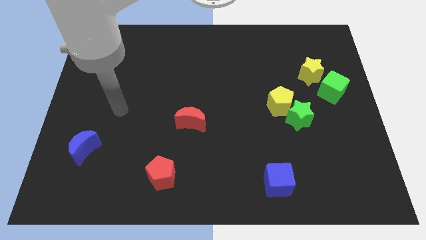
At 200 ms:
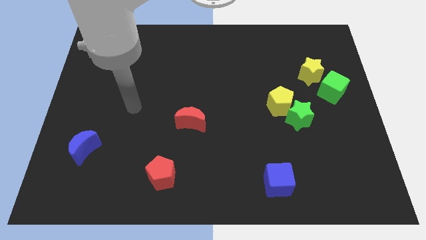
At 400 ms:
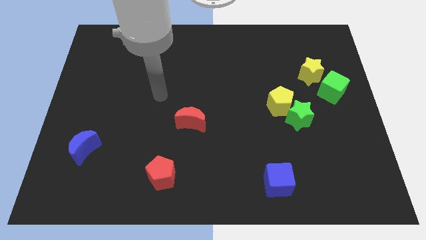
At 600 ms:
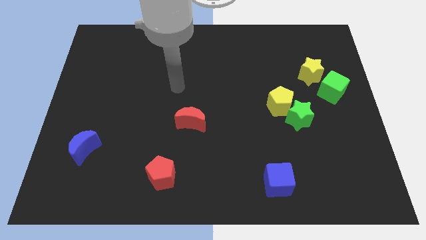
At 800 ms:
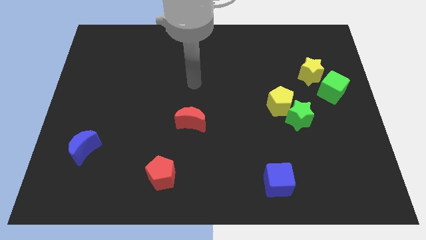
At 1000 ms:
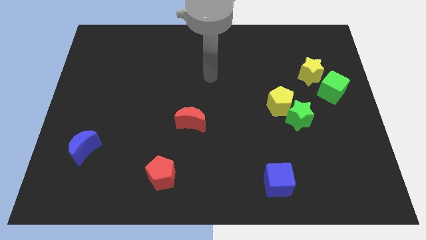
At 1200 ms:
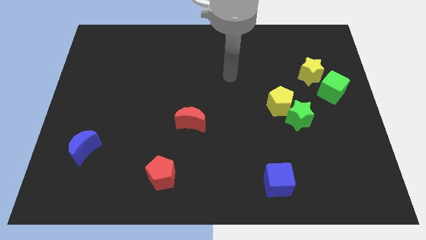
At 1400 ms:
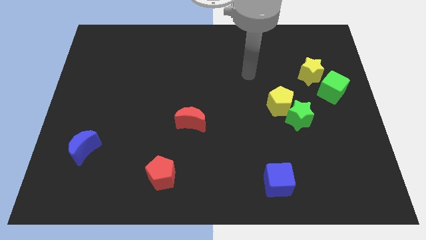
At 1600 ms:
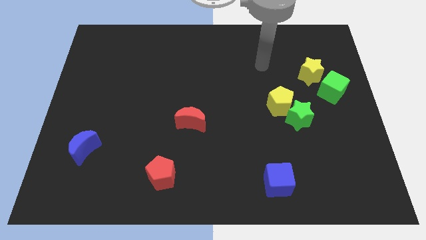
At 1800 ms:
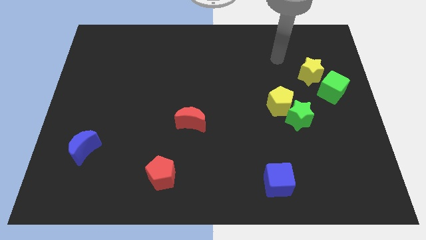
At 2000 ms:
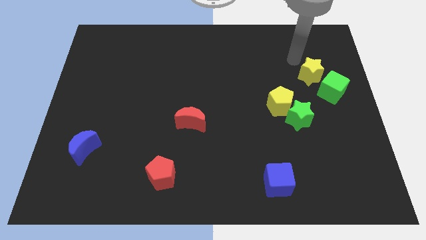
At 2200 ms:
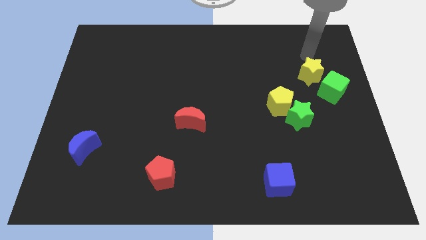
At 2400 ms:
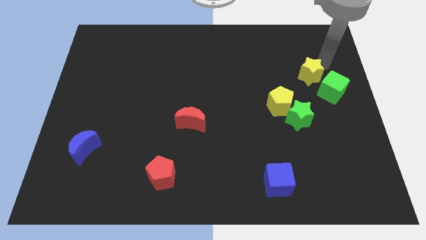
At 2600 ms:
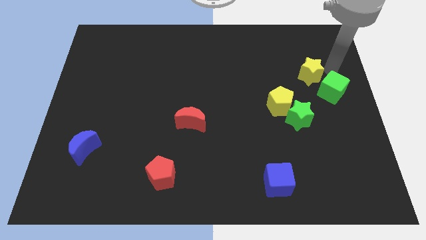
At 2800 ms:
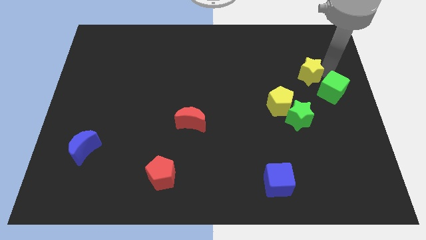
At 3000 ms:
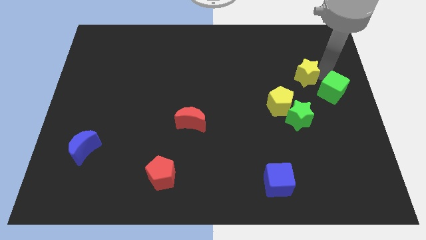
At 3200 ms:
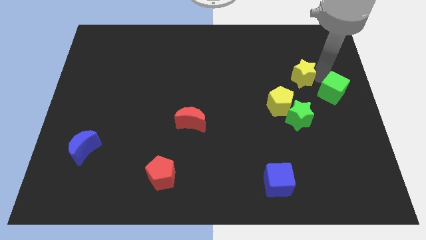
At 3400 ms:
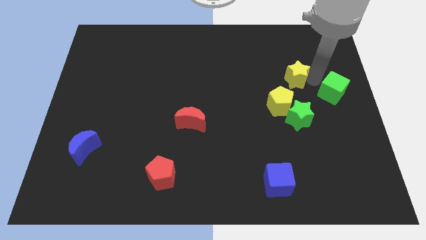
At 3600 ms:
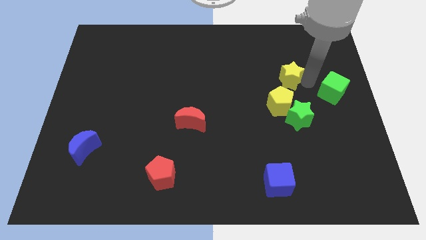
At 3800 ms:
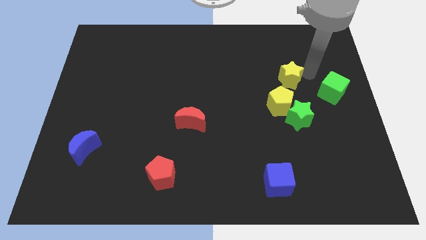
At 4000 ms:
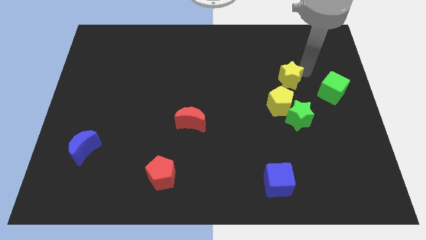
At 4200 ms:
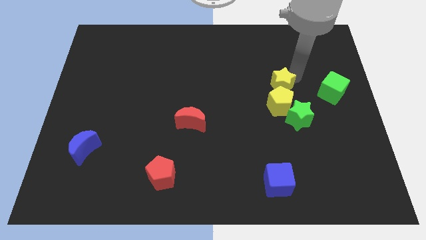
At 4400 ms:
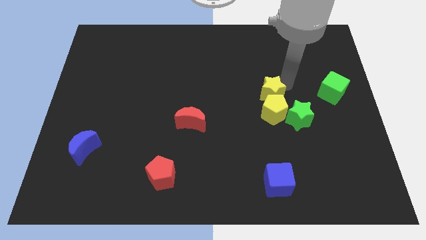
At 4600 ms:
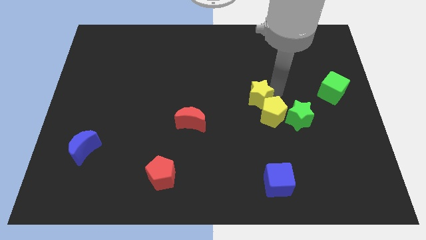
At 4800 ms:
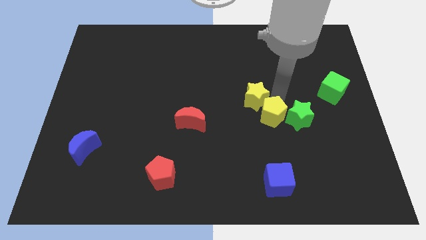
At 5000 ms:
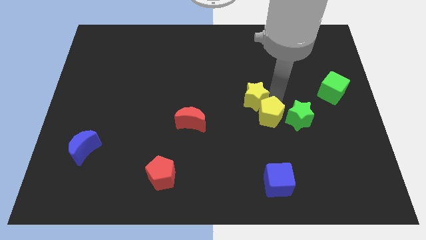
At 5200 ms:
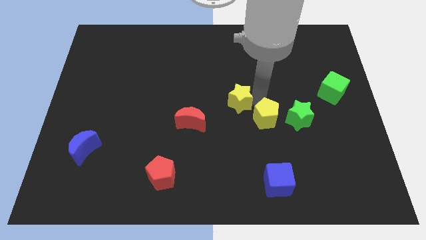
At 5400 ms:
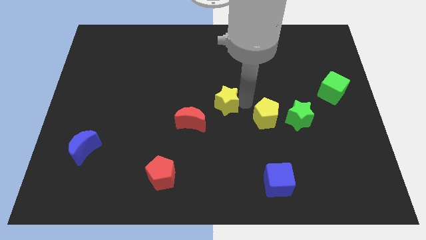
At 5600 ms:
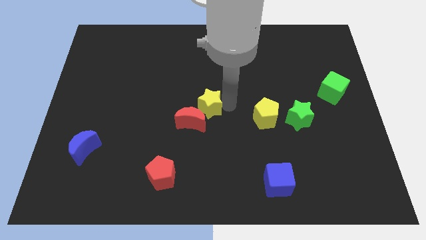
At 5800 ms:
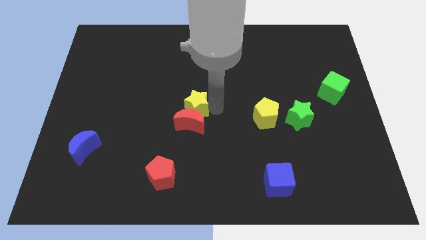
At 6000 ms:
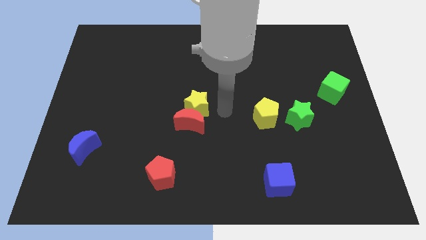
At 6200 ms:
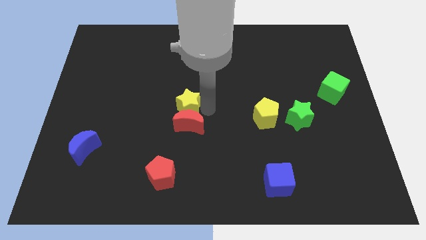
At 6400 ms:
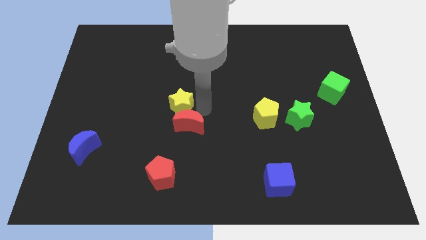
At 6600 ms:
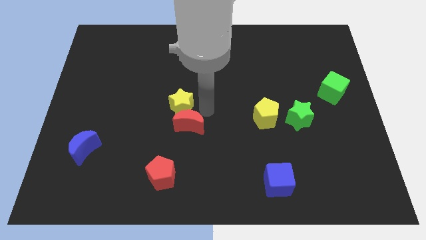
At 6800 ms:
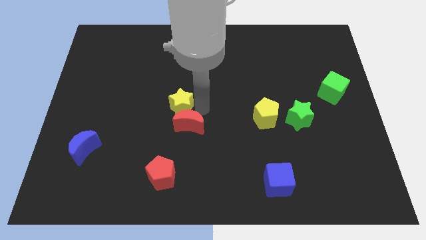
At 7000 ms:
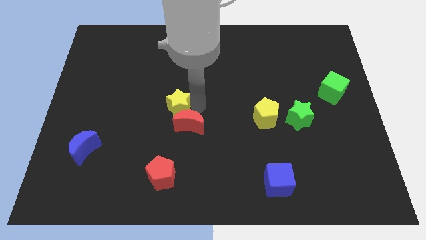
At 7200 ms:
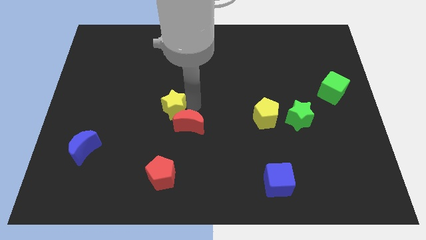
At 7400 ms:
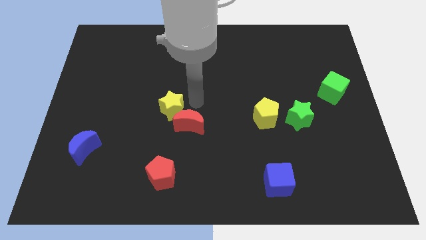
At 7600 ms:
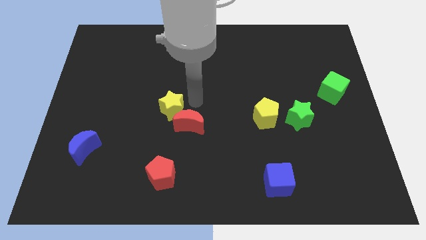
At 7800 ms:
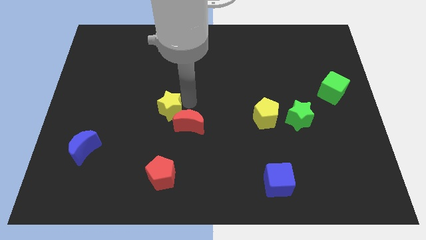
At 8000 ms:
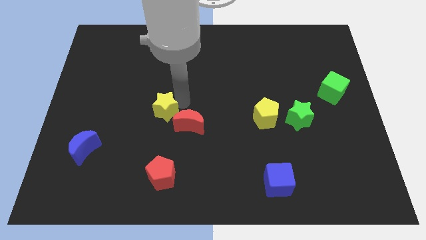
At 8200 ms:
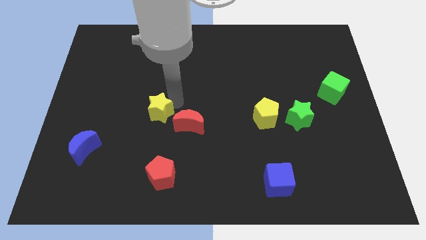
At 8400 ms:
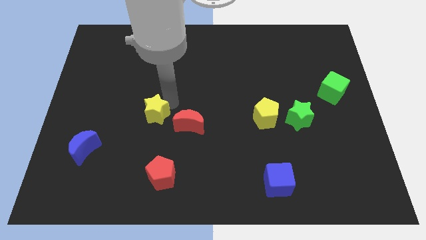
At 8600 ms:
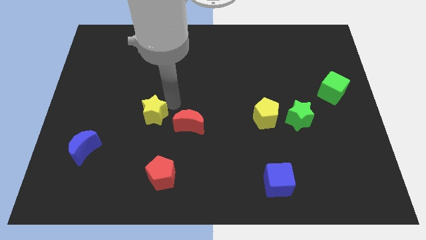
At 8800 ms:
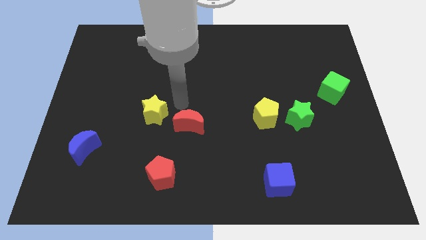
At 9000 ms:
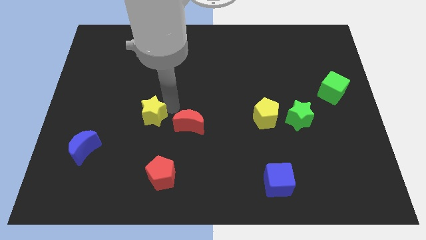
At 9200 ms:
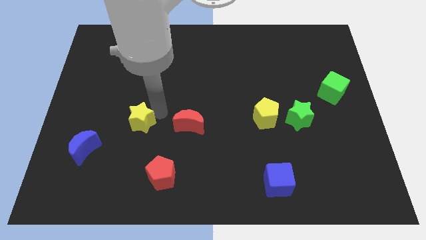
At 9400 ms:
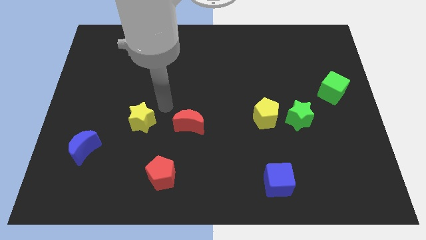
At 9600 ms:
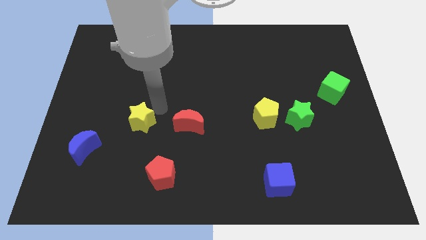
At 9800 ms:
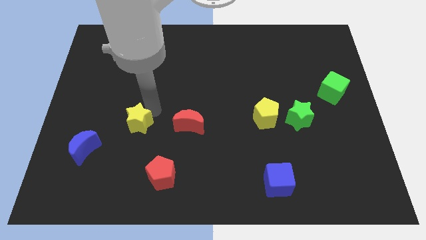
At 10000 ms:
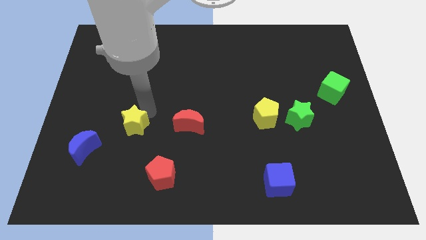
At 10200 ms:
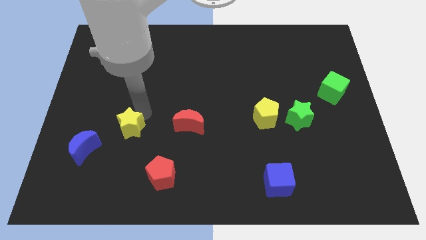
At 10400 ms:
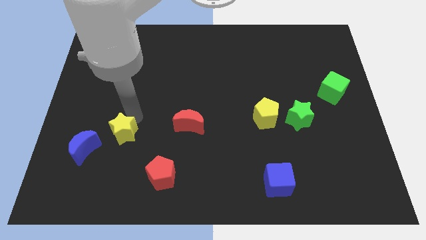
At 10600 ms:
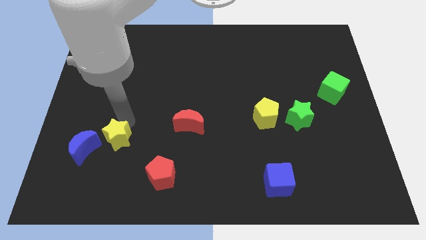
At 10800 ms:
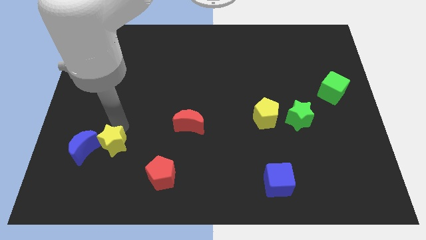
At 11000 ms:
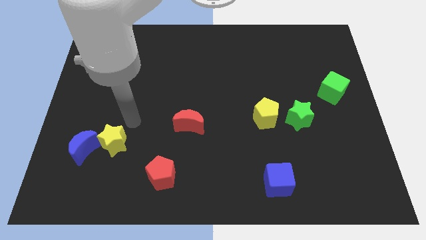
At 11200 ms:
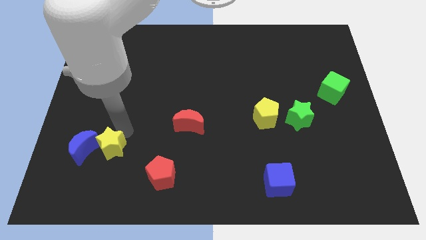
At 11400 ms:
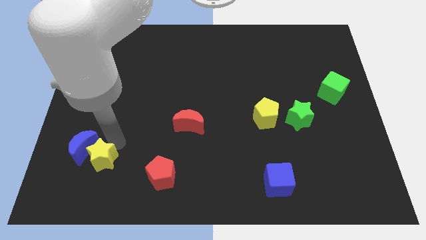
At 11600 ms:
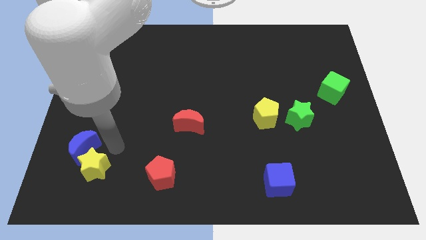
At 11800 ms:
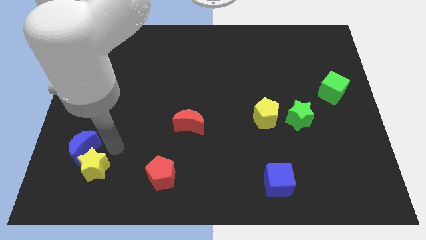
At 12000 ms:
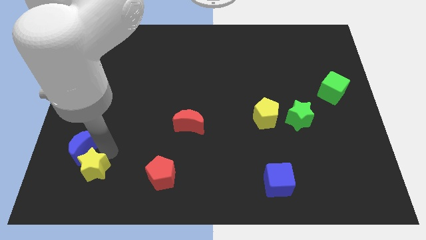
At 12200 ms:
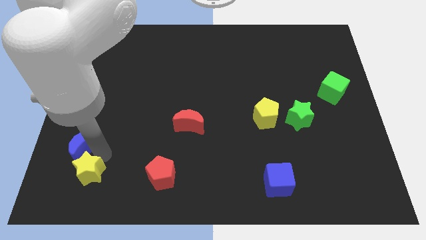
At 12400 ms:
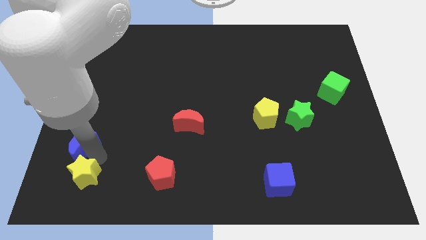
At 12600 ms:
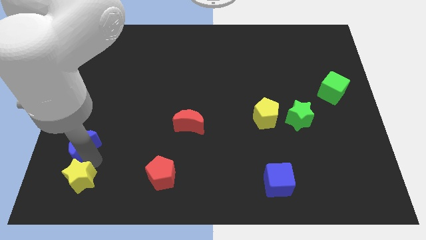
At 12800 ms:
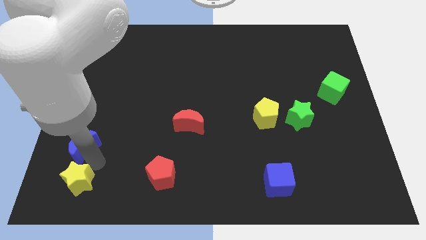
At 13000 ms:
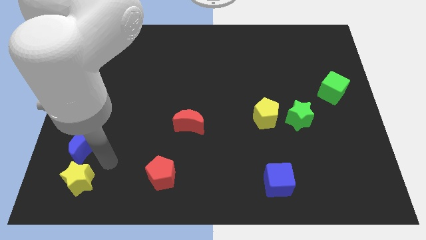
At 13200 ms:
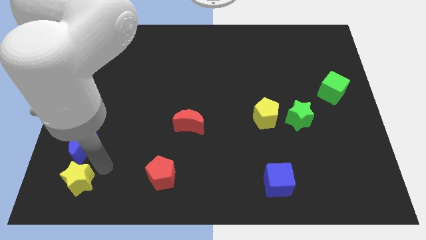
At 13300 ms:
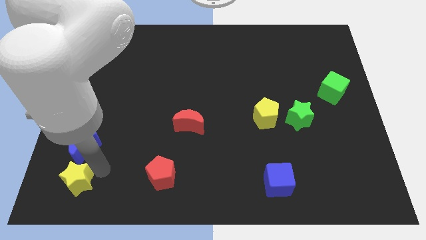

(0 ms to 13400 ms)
slide the yellow star to the bottom left of the board
